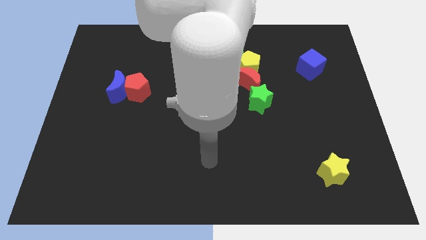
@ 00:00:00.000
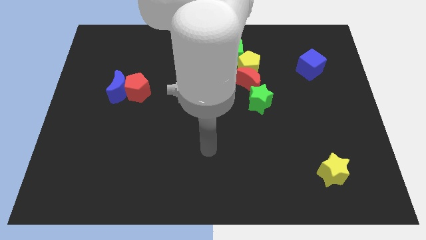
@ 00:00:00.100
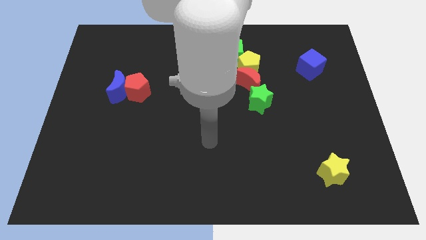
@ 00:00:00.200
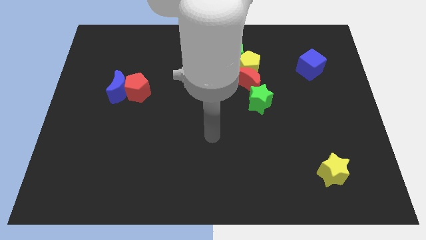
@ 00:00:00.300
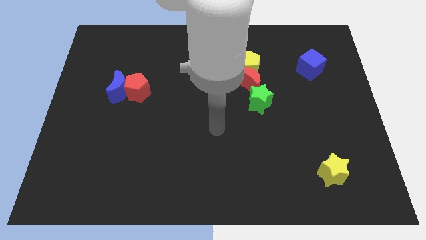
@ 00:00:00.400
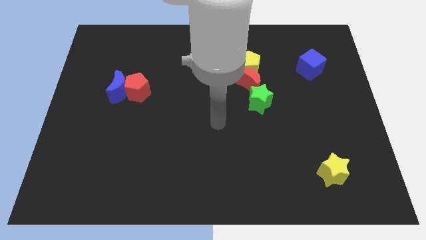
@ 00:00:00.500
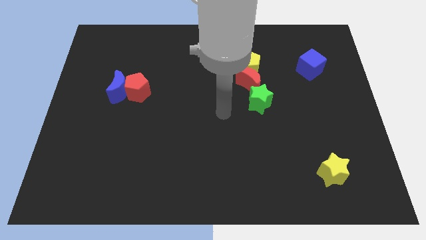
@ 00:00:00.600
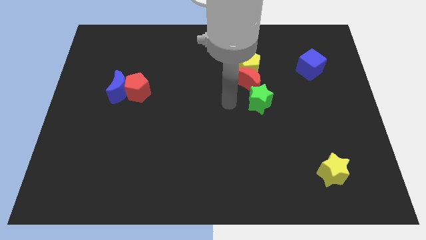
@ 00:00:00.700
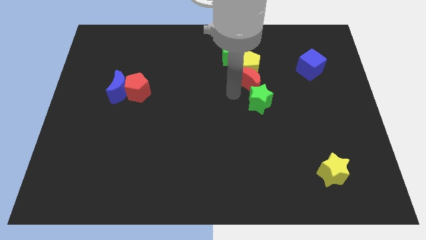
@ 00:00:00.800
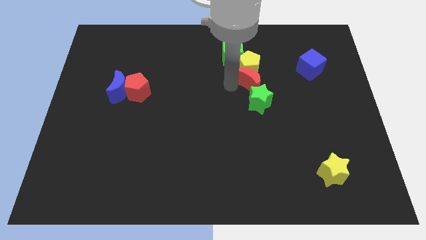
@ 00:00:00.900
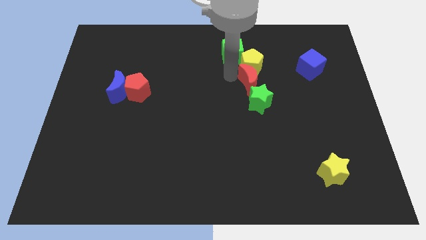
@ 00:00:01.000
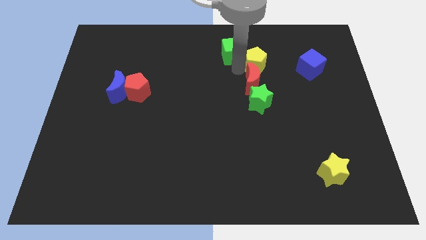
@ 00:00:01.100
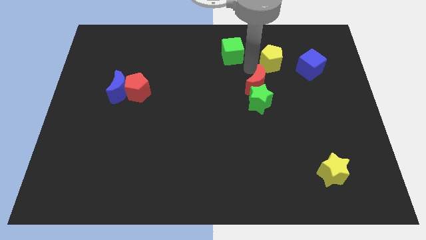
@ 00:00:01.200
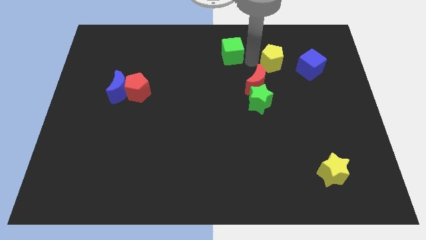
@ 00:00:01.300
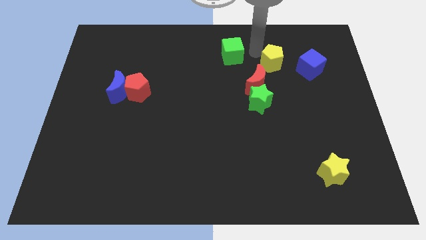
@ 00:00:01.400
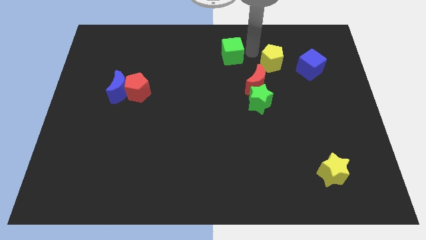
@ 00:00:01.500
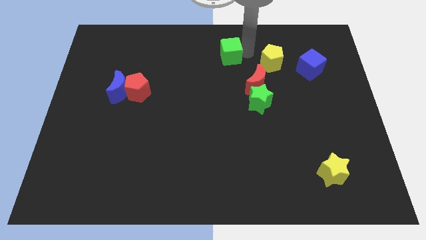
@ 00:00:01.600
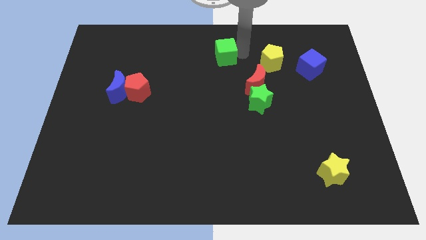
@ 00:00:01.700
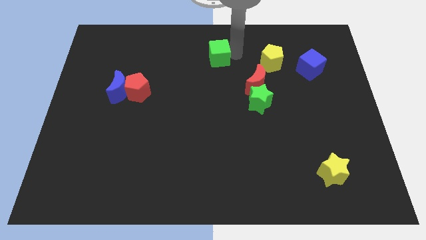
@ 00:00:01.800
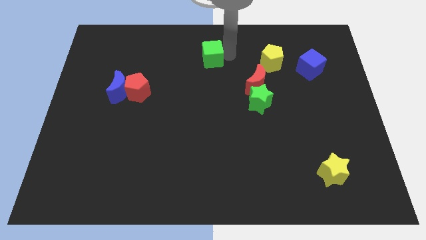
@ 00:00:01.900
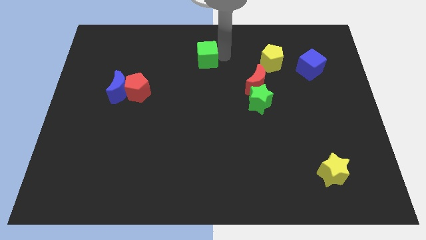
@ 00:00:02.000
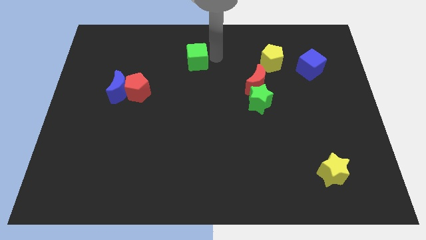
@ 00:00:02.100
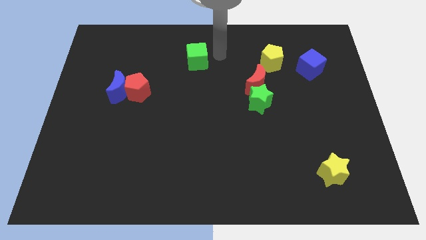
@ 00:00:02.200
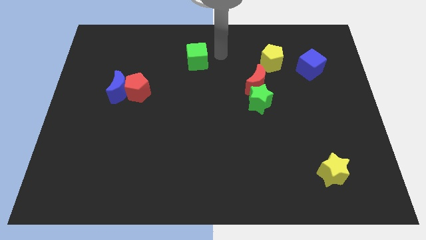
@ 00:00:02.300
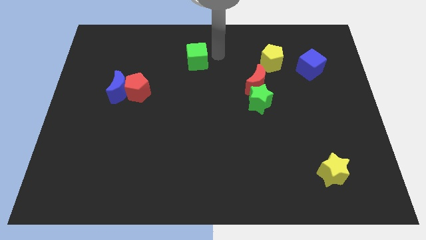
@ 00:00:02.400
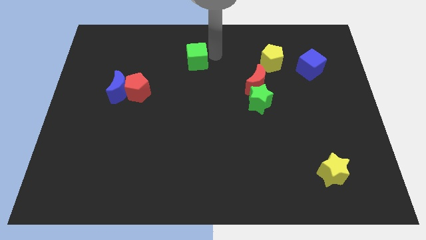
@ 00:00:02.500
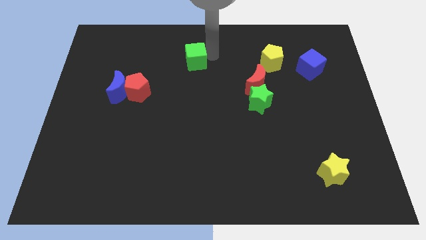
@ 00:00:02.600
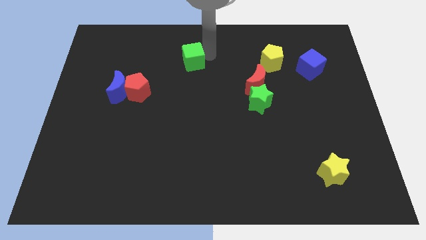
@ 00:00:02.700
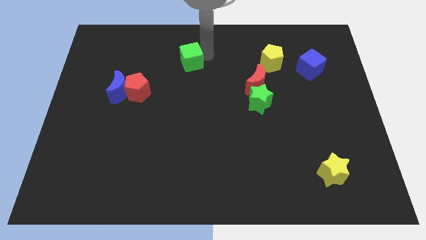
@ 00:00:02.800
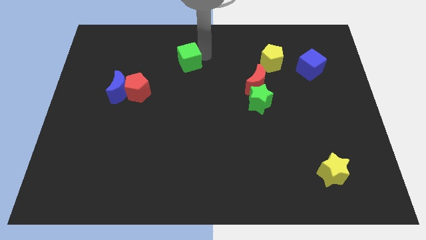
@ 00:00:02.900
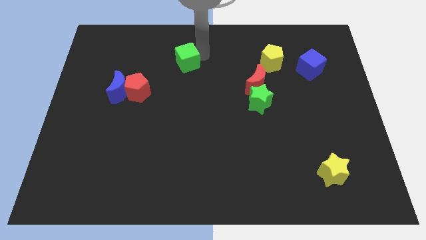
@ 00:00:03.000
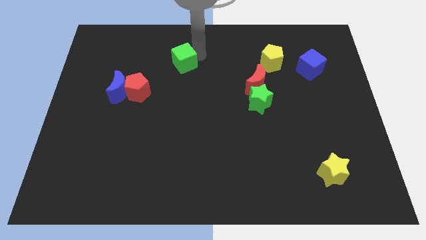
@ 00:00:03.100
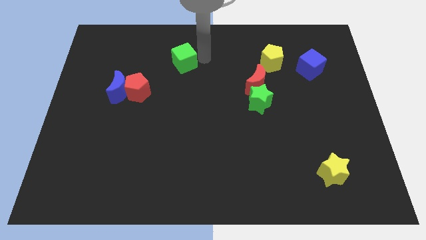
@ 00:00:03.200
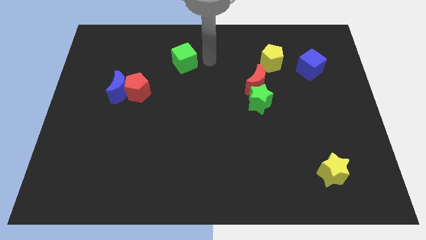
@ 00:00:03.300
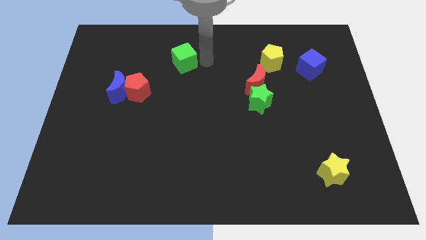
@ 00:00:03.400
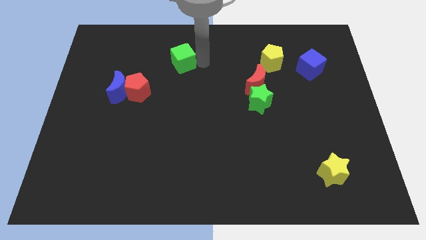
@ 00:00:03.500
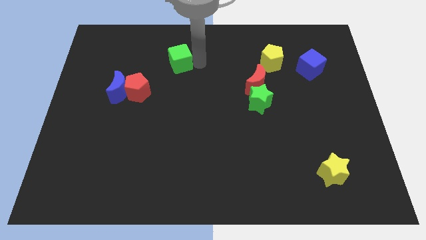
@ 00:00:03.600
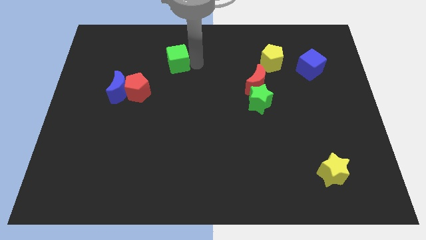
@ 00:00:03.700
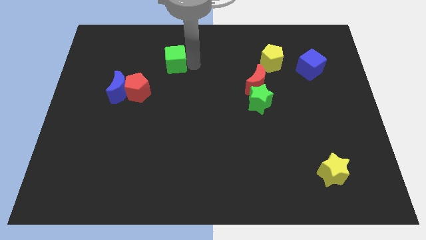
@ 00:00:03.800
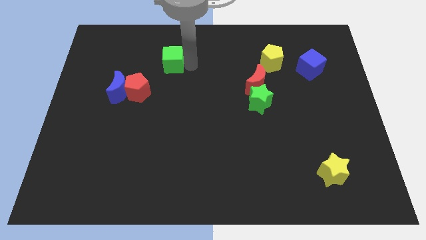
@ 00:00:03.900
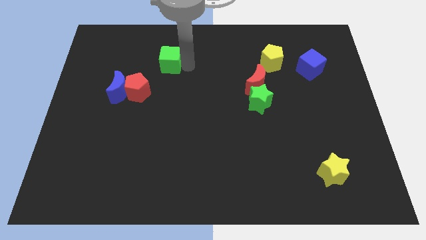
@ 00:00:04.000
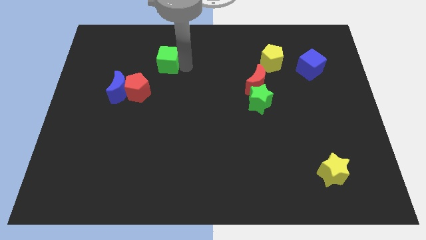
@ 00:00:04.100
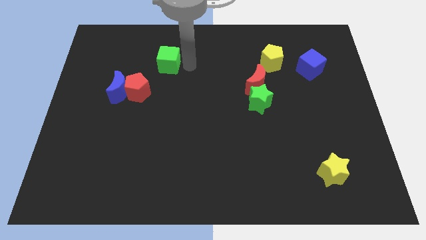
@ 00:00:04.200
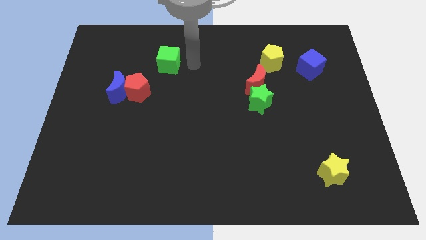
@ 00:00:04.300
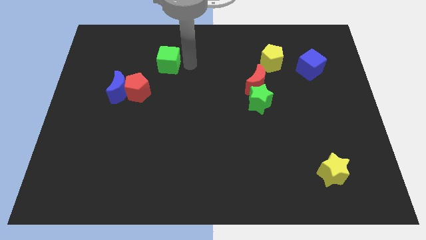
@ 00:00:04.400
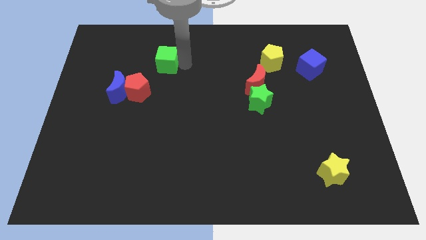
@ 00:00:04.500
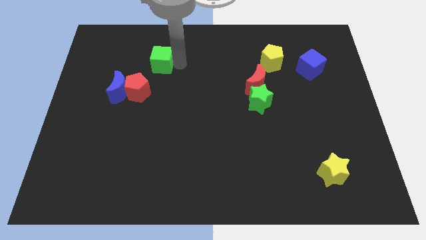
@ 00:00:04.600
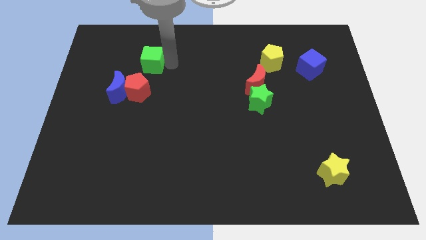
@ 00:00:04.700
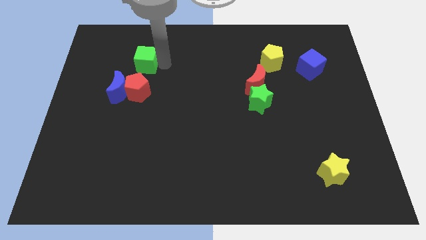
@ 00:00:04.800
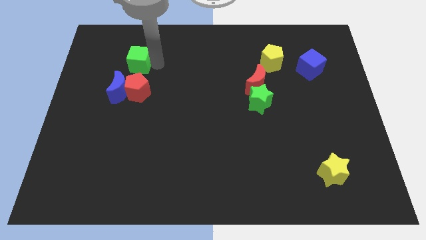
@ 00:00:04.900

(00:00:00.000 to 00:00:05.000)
slide the green cube above the blue moon

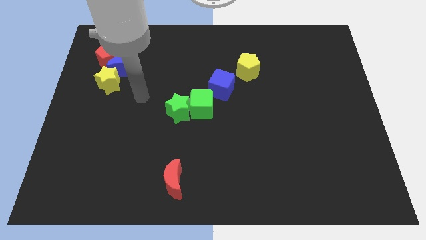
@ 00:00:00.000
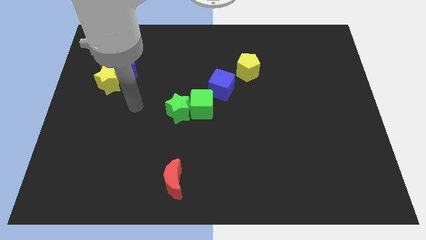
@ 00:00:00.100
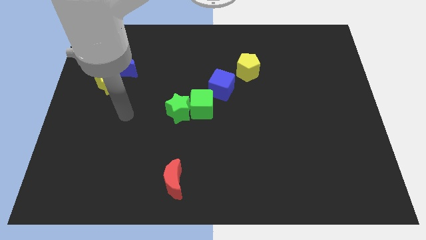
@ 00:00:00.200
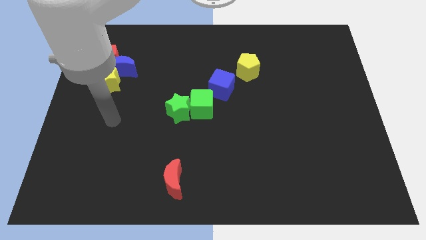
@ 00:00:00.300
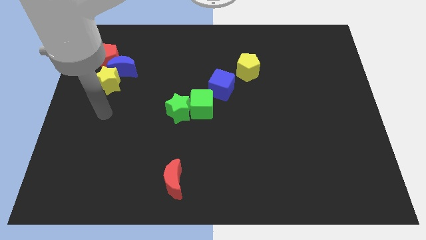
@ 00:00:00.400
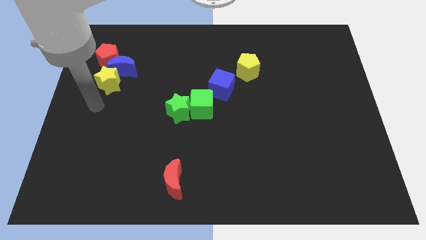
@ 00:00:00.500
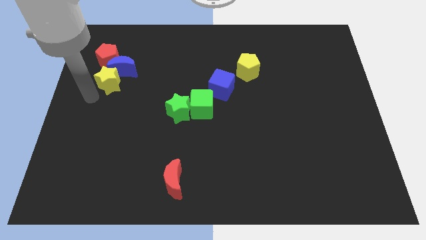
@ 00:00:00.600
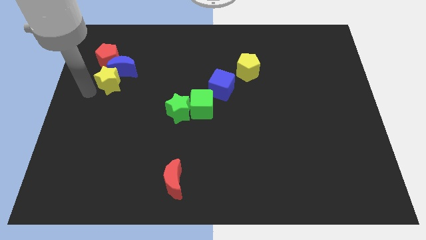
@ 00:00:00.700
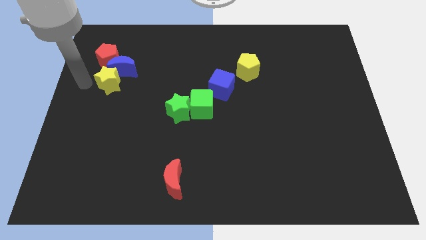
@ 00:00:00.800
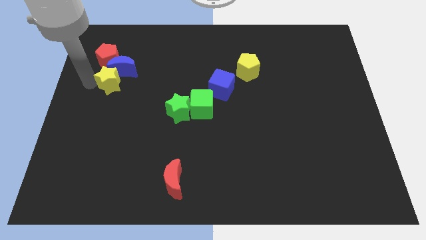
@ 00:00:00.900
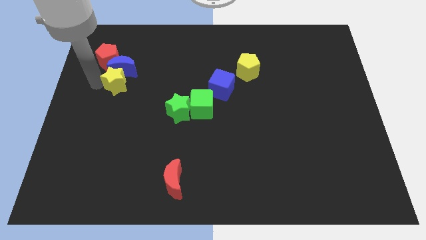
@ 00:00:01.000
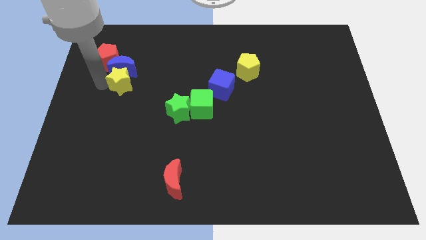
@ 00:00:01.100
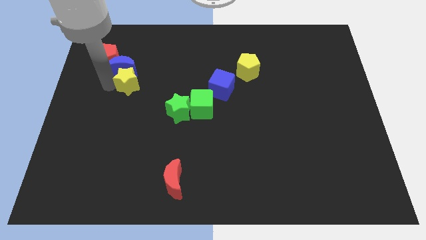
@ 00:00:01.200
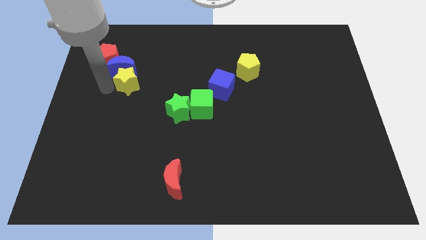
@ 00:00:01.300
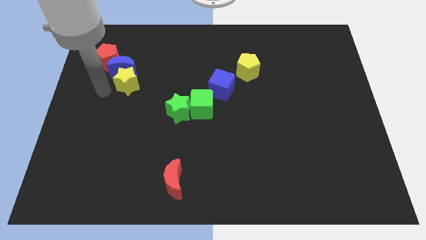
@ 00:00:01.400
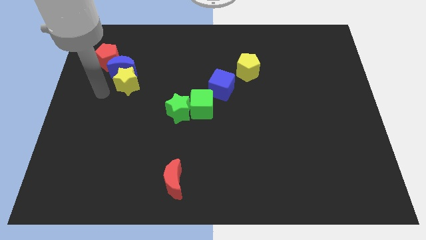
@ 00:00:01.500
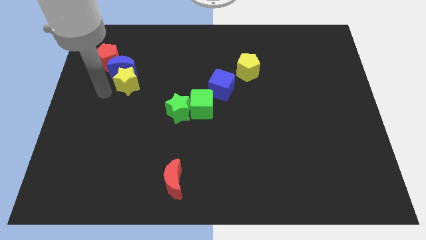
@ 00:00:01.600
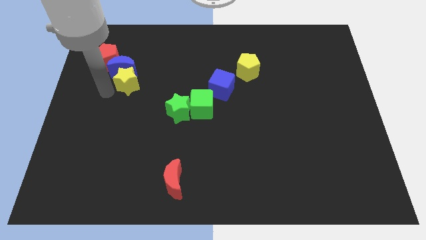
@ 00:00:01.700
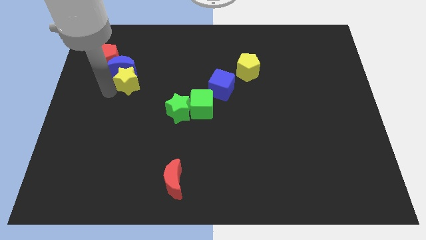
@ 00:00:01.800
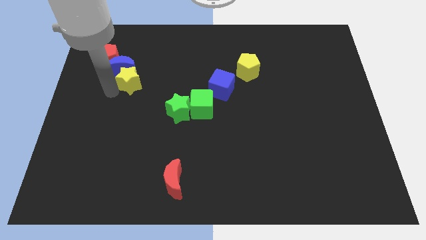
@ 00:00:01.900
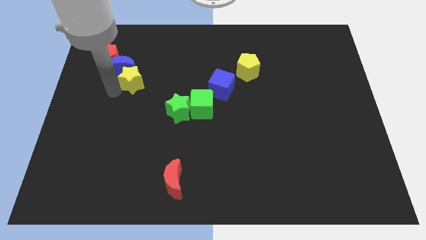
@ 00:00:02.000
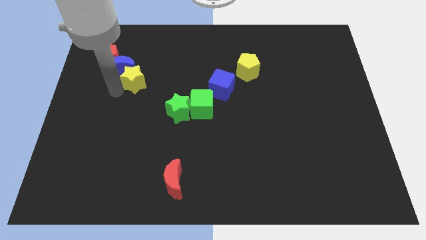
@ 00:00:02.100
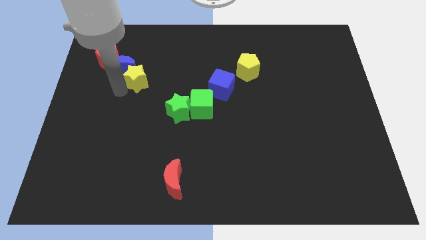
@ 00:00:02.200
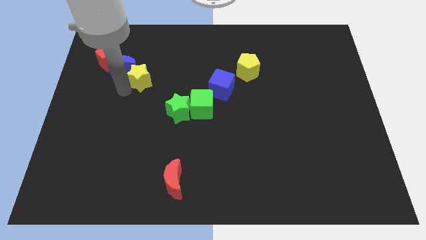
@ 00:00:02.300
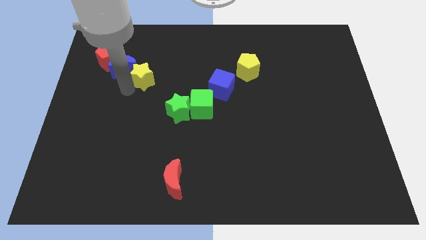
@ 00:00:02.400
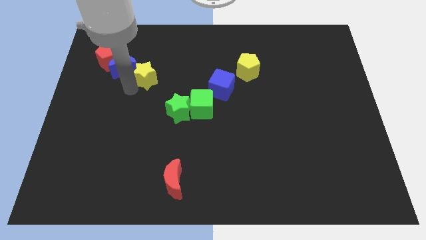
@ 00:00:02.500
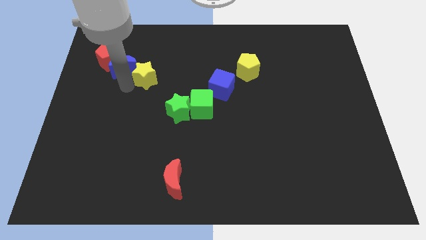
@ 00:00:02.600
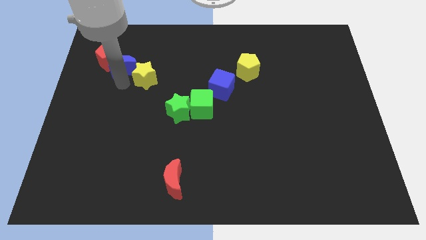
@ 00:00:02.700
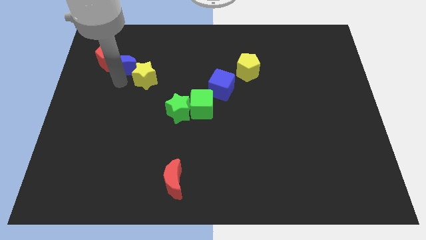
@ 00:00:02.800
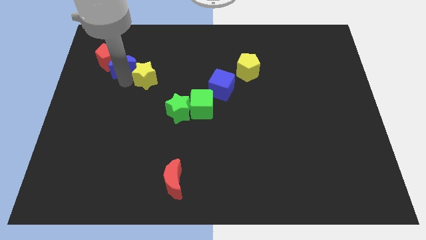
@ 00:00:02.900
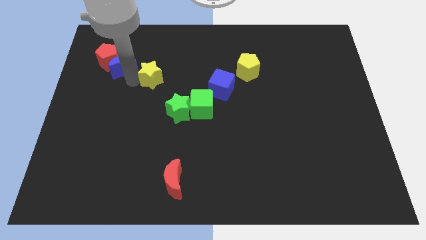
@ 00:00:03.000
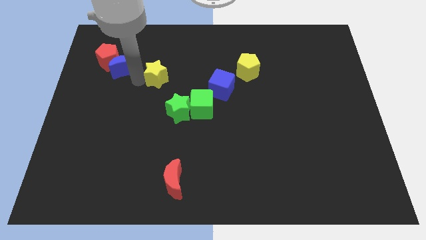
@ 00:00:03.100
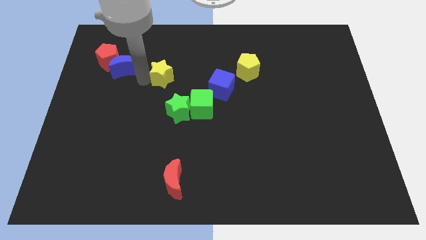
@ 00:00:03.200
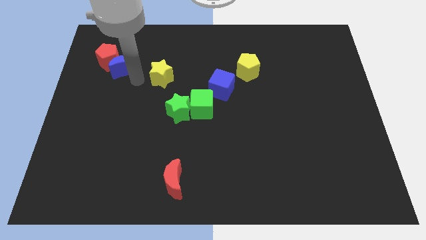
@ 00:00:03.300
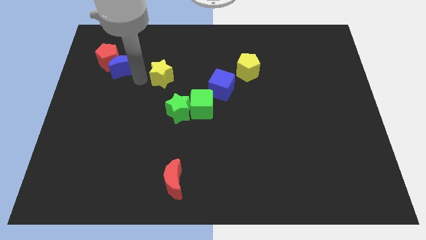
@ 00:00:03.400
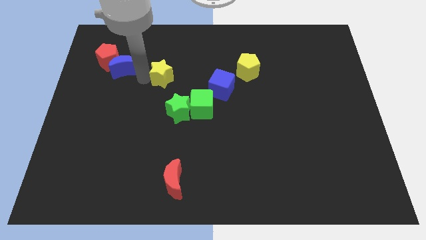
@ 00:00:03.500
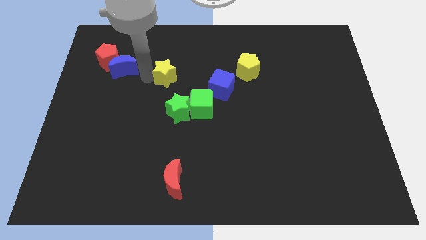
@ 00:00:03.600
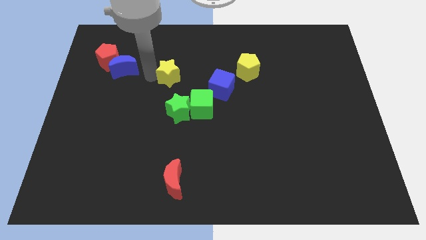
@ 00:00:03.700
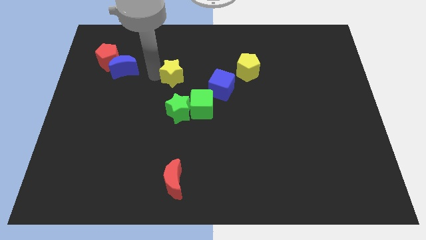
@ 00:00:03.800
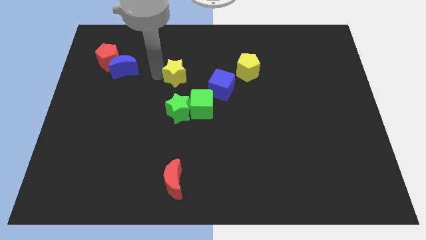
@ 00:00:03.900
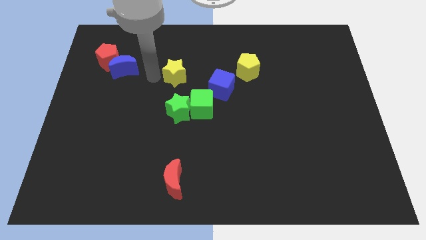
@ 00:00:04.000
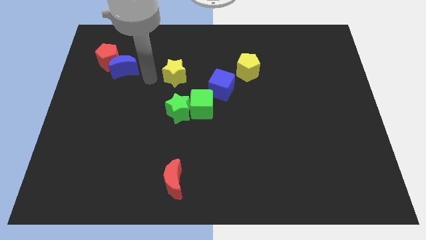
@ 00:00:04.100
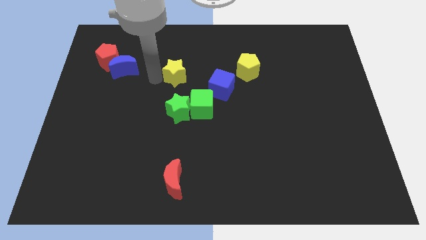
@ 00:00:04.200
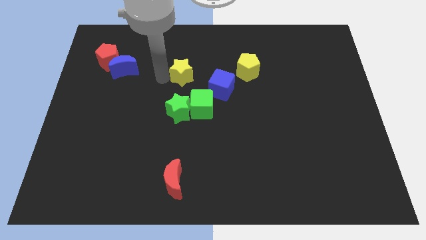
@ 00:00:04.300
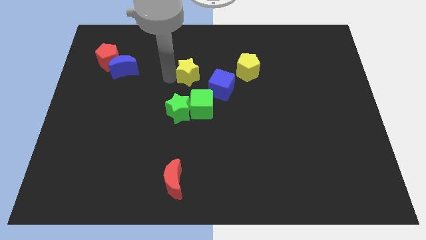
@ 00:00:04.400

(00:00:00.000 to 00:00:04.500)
move the yellow star to the top side of the green cube
